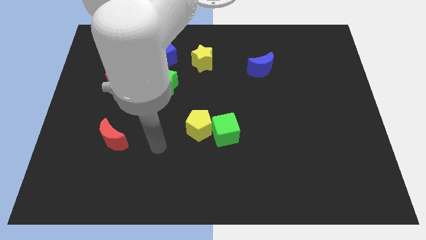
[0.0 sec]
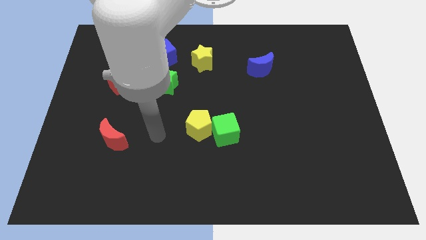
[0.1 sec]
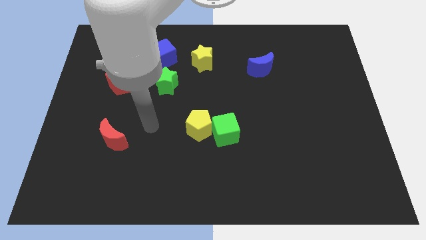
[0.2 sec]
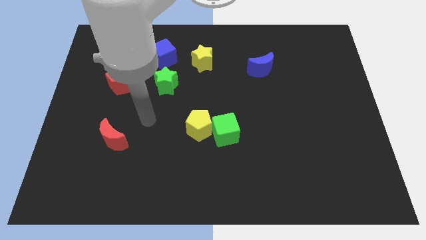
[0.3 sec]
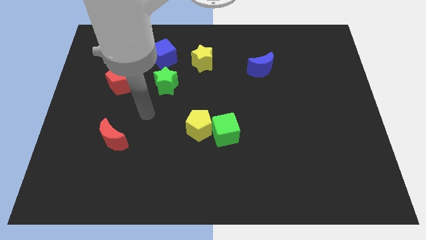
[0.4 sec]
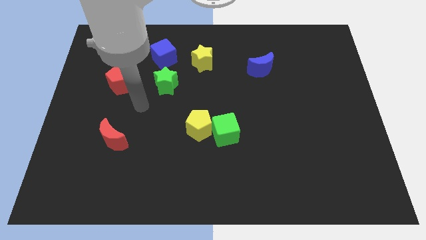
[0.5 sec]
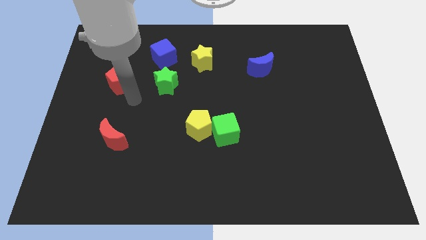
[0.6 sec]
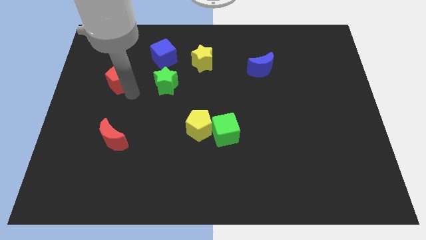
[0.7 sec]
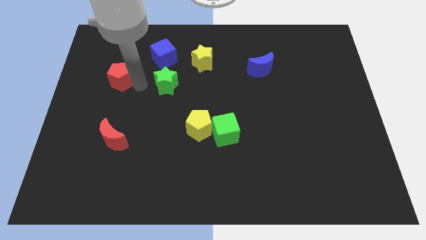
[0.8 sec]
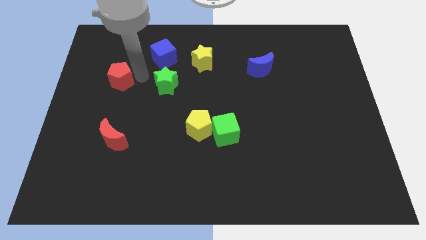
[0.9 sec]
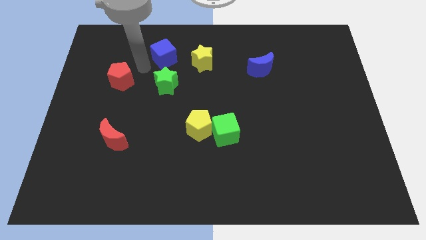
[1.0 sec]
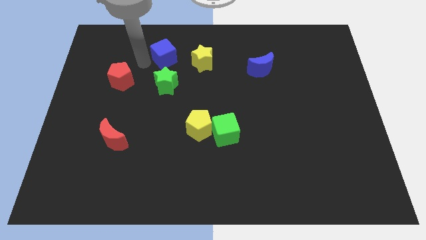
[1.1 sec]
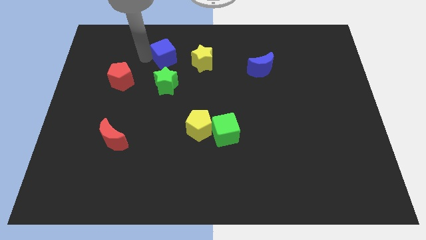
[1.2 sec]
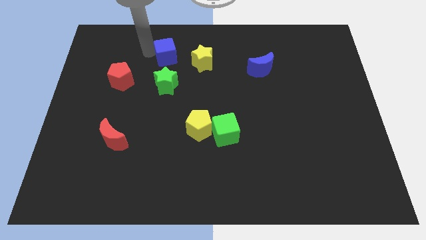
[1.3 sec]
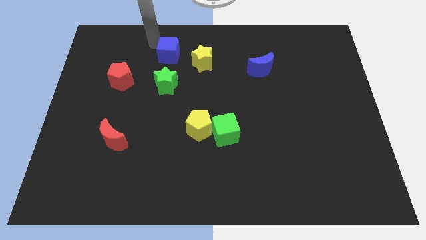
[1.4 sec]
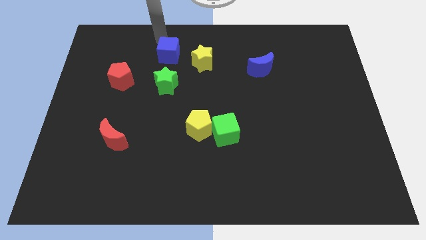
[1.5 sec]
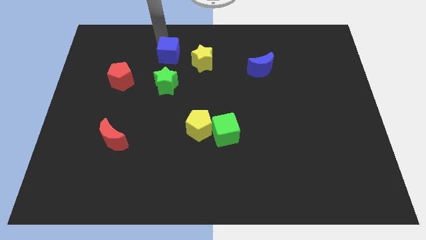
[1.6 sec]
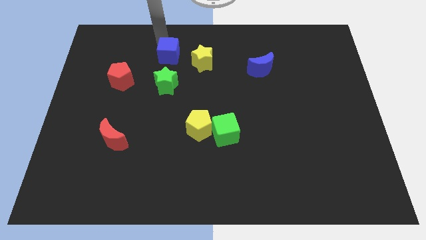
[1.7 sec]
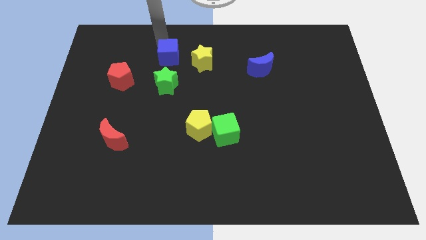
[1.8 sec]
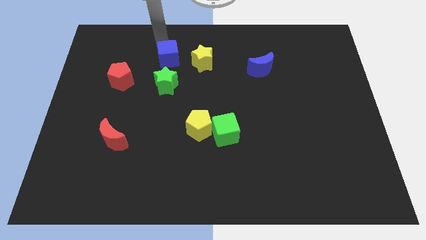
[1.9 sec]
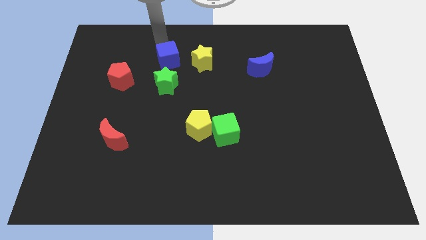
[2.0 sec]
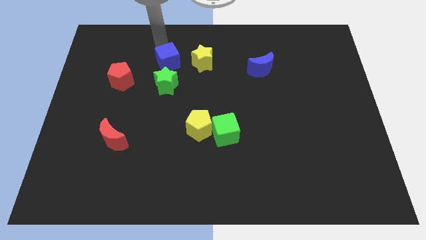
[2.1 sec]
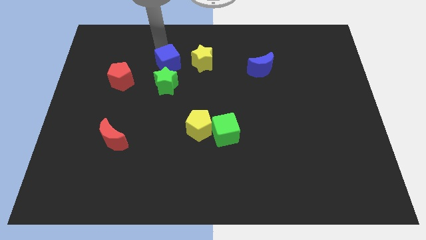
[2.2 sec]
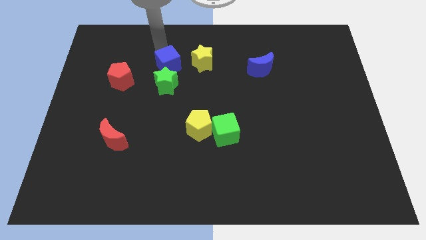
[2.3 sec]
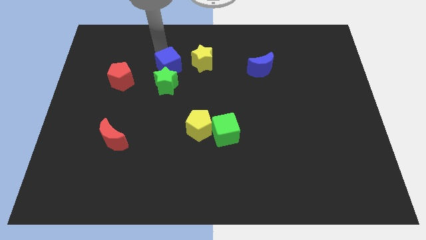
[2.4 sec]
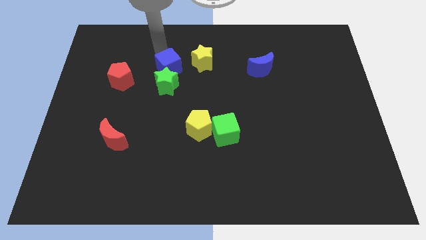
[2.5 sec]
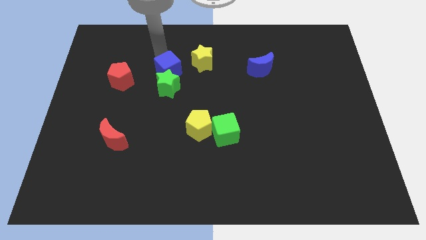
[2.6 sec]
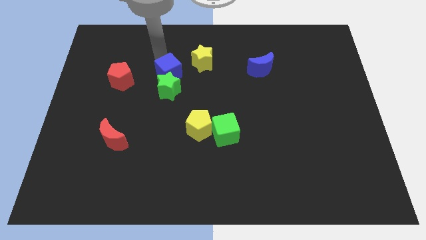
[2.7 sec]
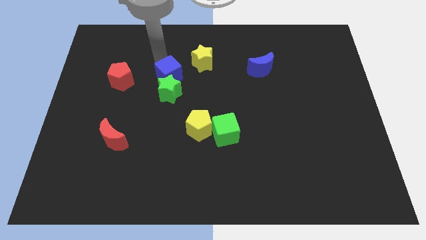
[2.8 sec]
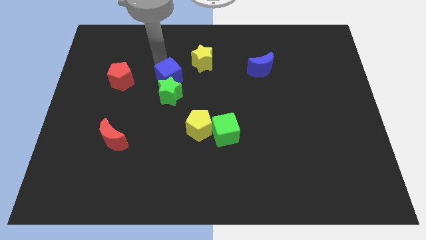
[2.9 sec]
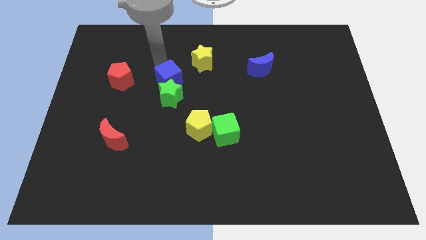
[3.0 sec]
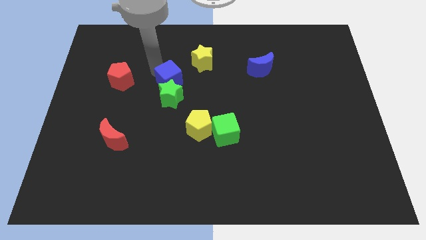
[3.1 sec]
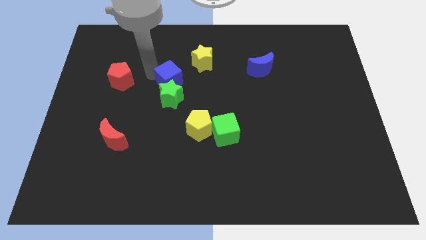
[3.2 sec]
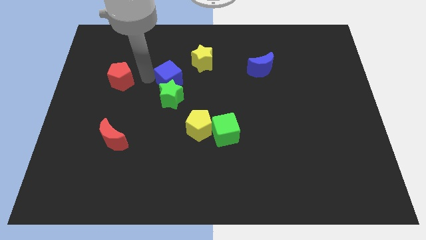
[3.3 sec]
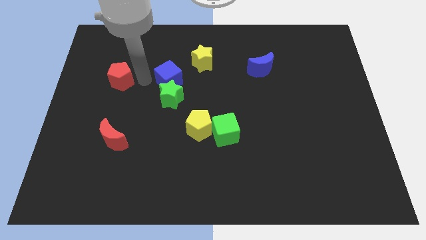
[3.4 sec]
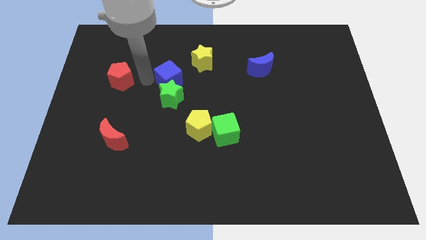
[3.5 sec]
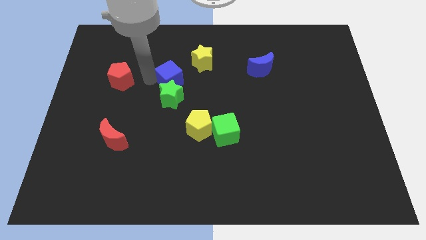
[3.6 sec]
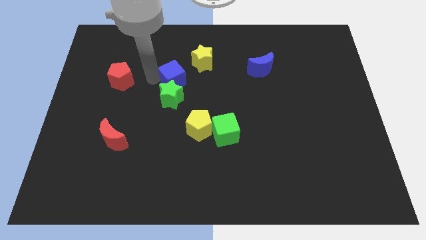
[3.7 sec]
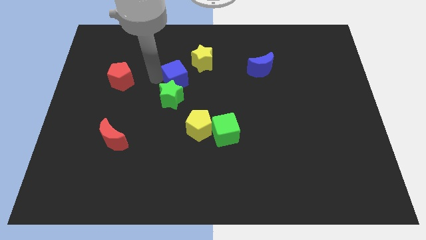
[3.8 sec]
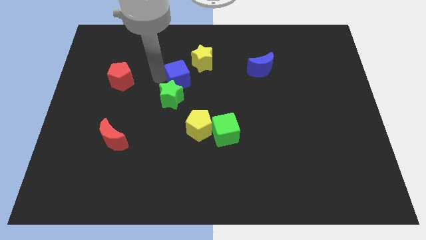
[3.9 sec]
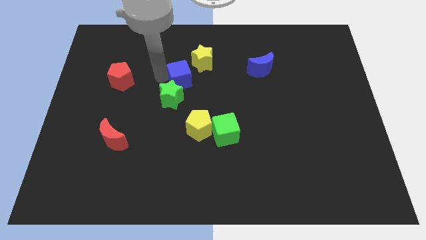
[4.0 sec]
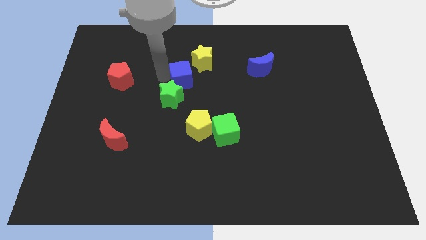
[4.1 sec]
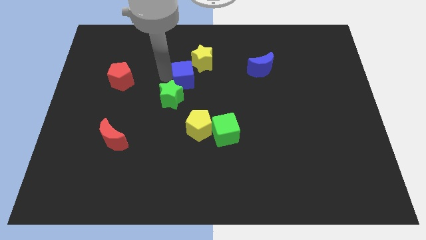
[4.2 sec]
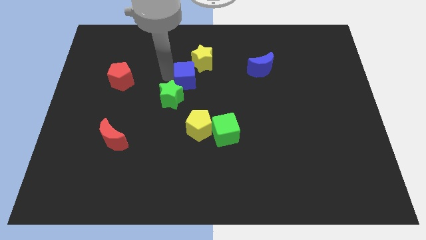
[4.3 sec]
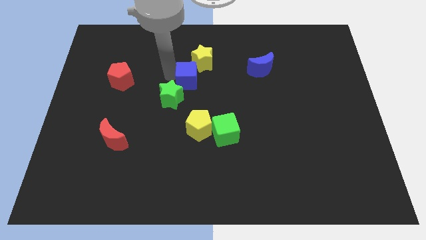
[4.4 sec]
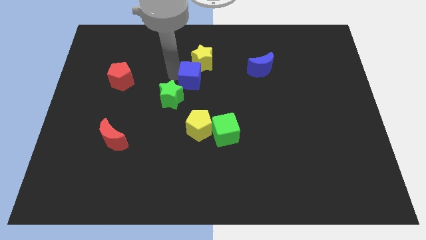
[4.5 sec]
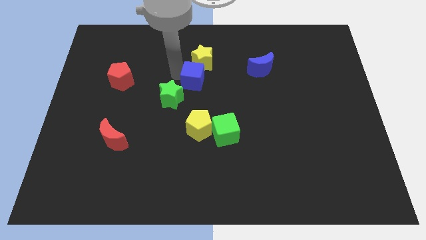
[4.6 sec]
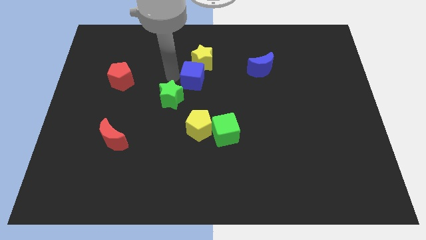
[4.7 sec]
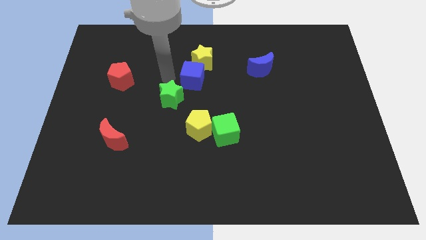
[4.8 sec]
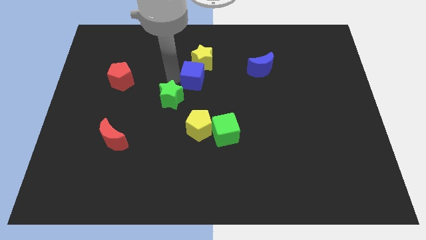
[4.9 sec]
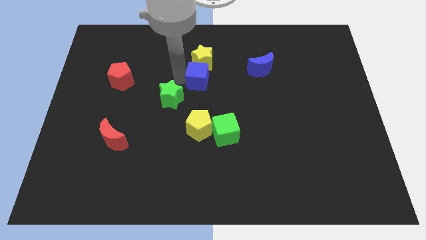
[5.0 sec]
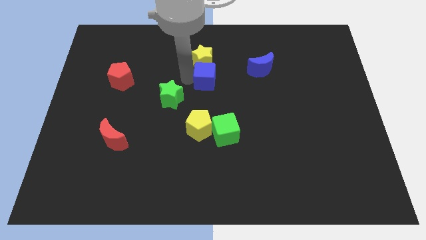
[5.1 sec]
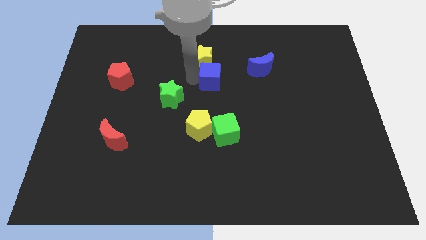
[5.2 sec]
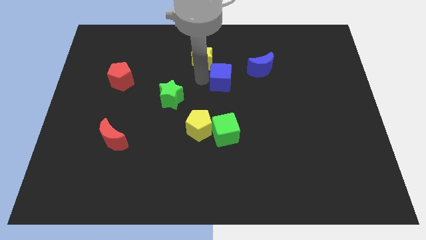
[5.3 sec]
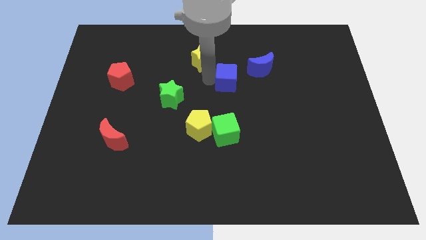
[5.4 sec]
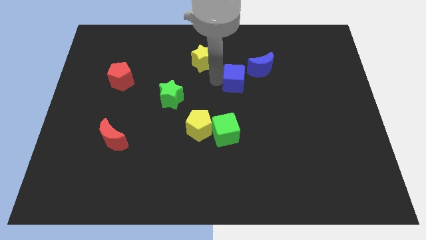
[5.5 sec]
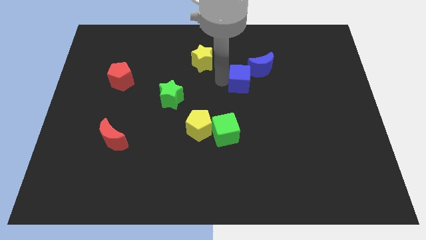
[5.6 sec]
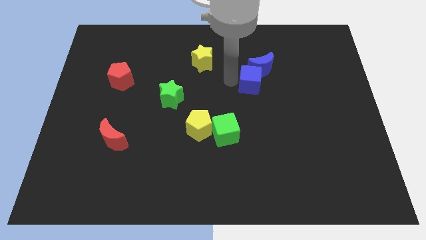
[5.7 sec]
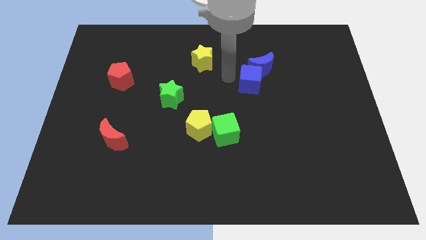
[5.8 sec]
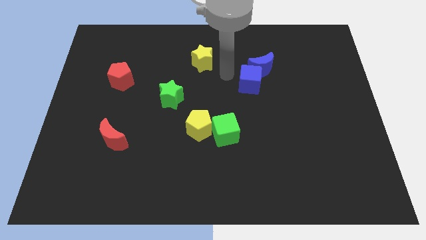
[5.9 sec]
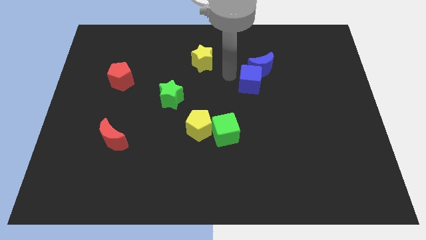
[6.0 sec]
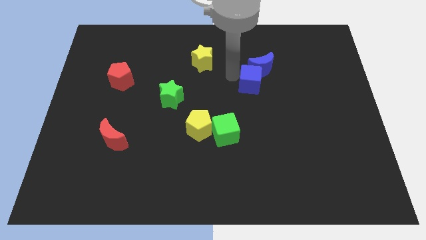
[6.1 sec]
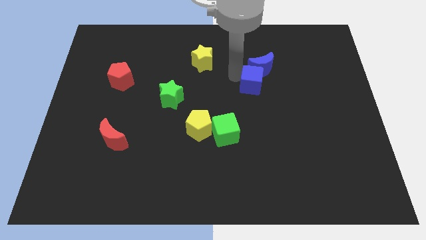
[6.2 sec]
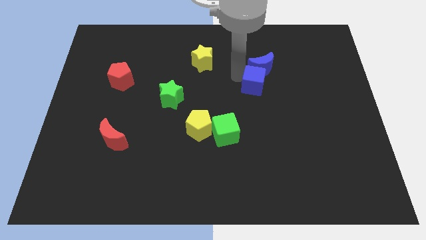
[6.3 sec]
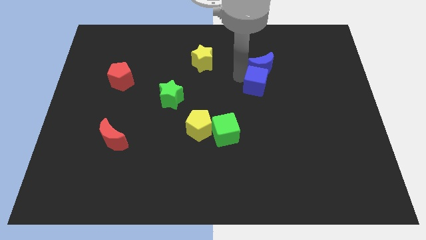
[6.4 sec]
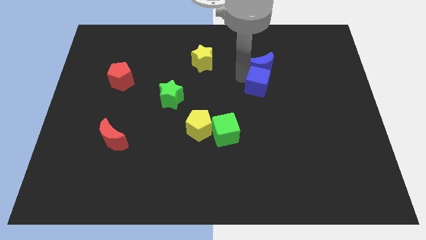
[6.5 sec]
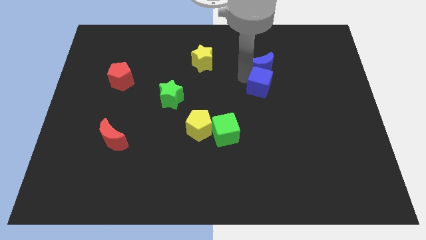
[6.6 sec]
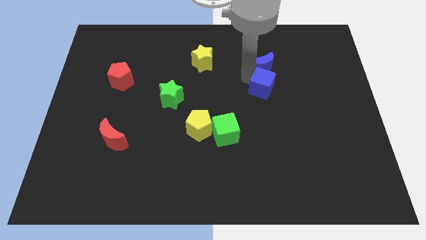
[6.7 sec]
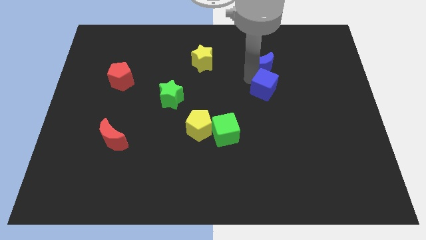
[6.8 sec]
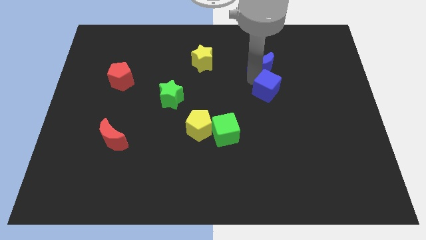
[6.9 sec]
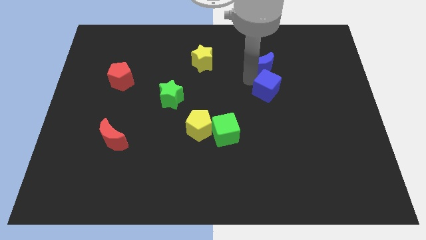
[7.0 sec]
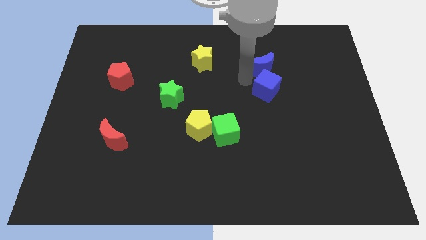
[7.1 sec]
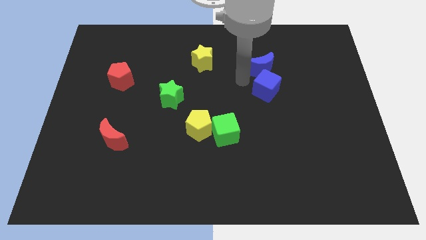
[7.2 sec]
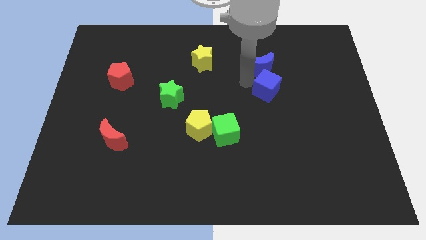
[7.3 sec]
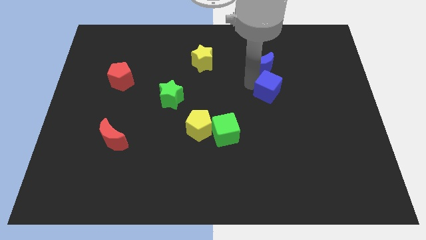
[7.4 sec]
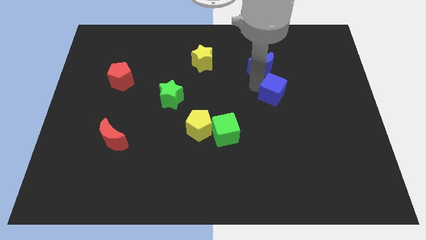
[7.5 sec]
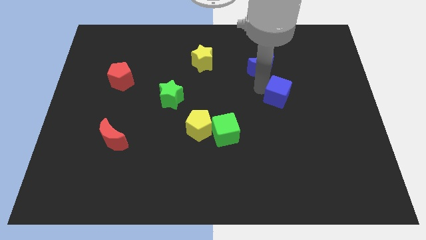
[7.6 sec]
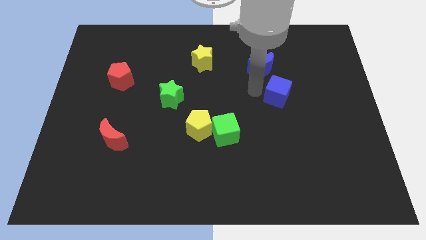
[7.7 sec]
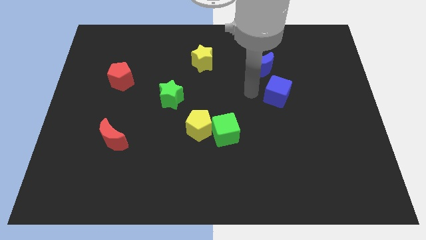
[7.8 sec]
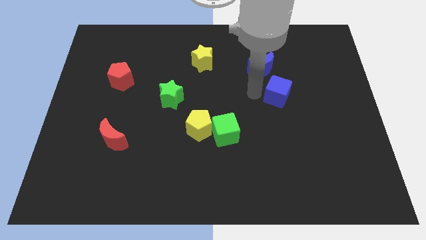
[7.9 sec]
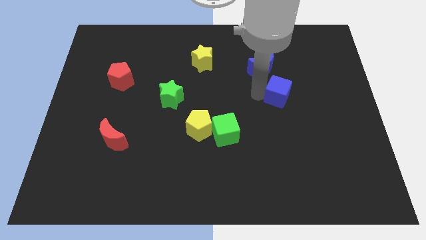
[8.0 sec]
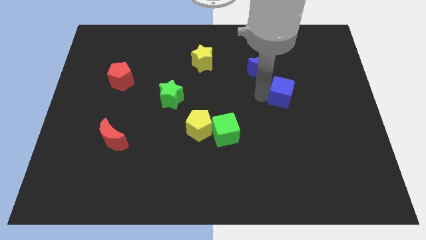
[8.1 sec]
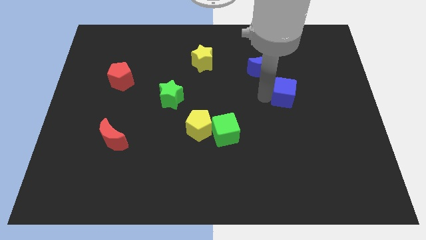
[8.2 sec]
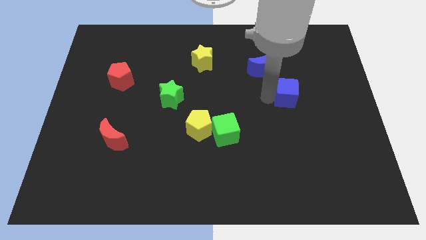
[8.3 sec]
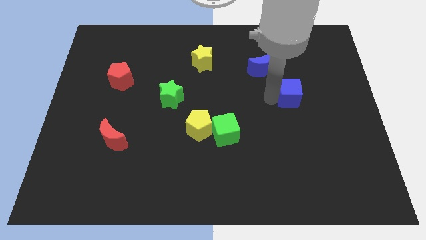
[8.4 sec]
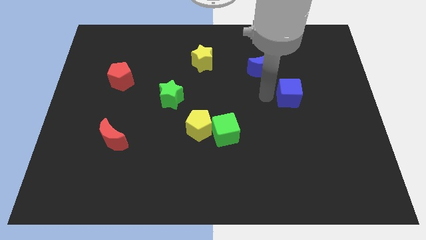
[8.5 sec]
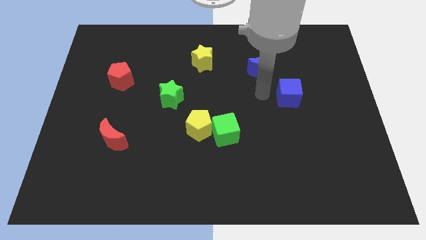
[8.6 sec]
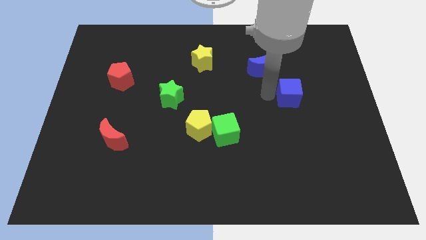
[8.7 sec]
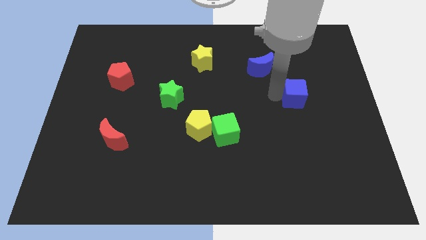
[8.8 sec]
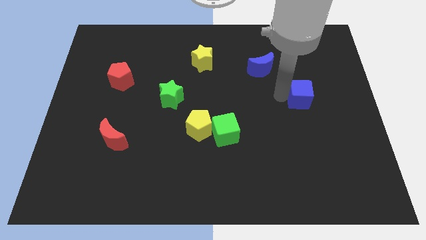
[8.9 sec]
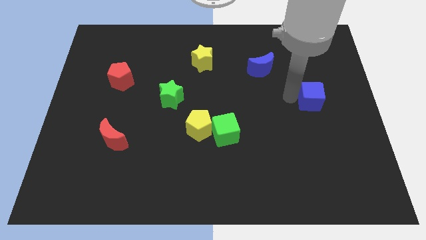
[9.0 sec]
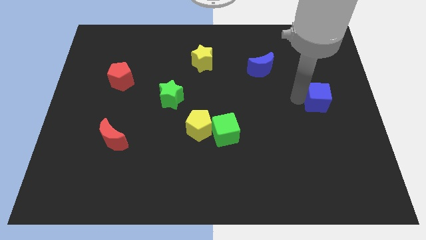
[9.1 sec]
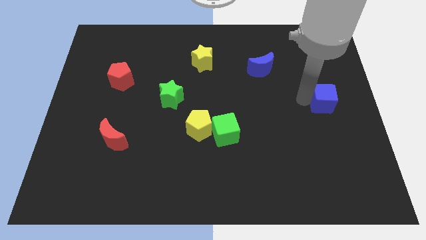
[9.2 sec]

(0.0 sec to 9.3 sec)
put the blue cube to the center right
